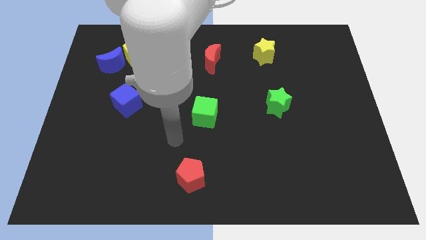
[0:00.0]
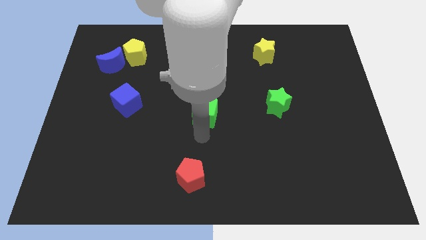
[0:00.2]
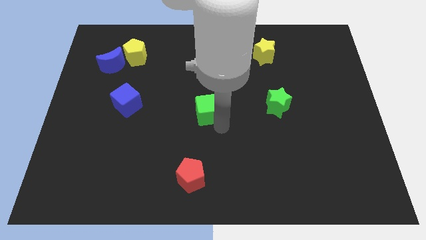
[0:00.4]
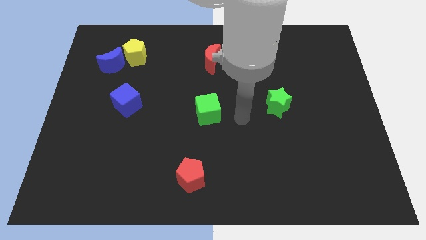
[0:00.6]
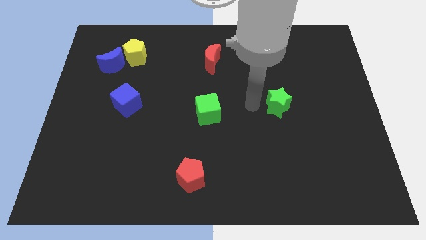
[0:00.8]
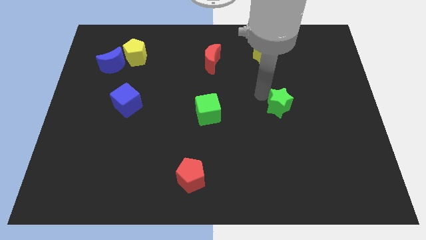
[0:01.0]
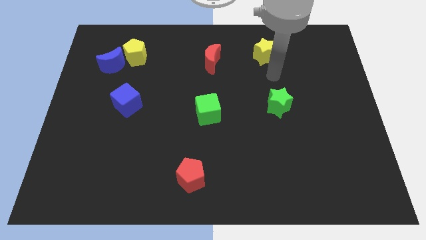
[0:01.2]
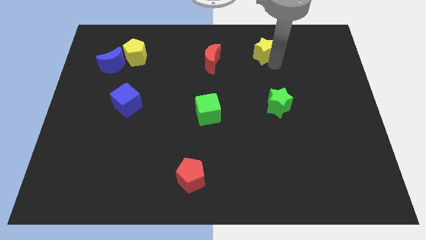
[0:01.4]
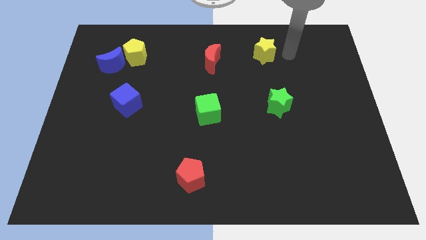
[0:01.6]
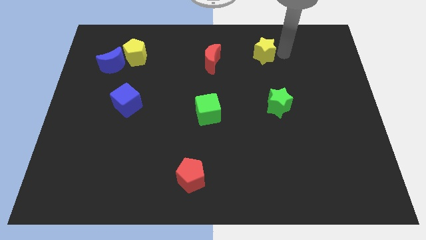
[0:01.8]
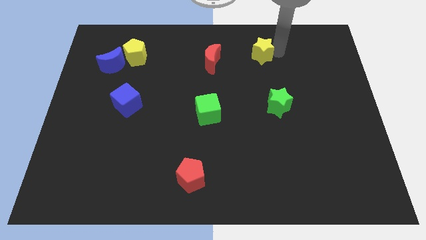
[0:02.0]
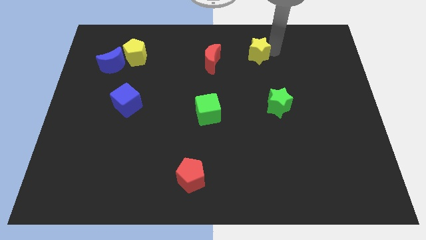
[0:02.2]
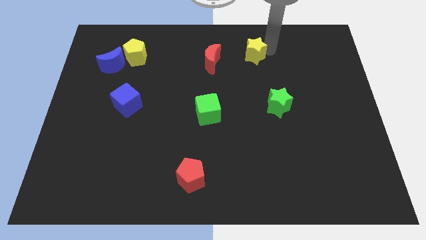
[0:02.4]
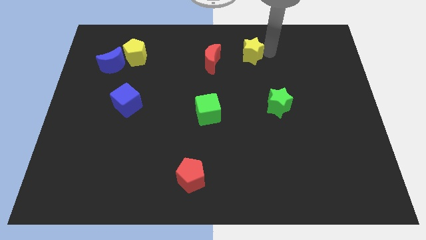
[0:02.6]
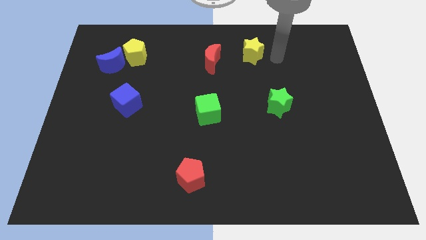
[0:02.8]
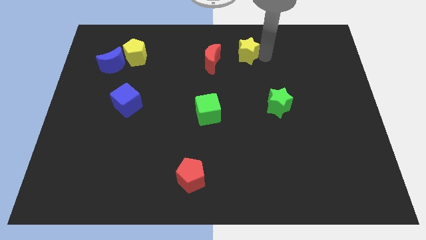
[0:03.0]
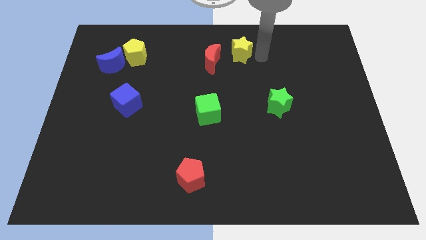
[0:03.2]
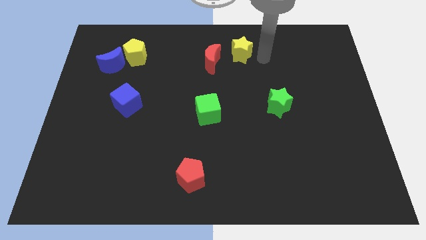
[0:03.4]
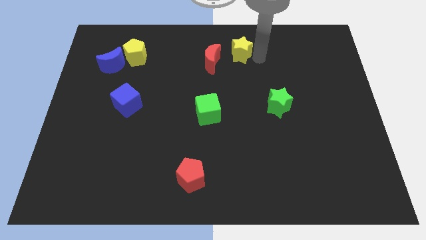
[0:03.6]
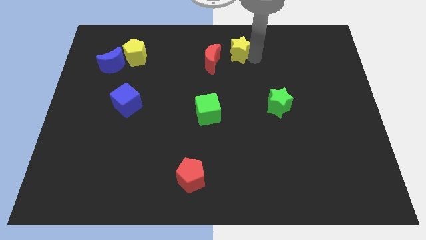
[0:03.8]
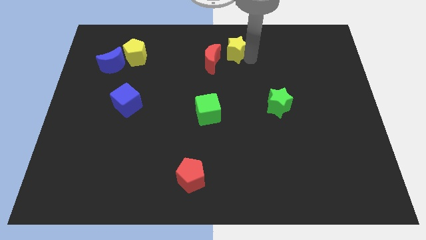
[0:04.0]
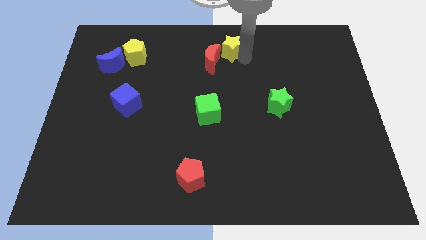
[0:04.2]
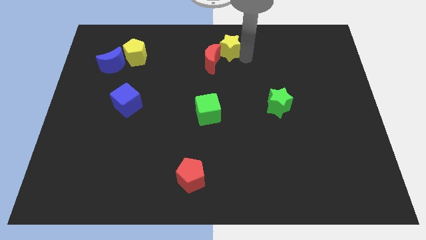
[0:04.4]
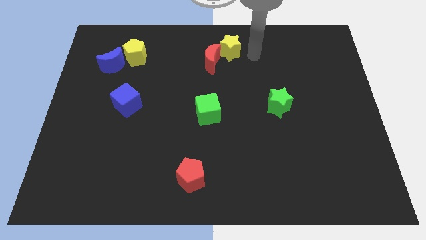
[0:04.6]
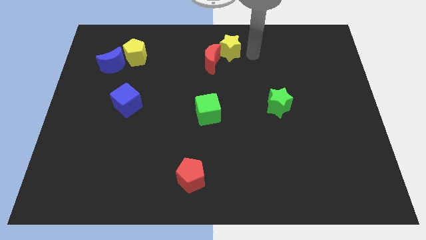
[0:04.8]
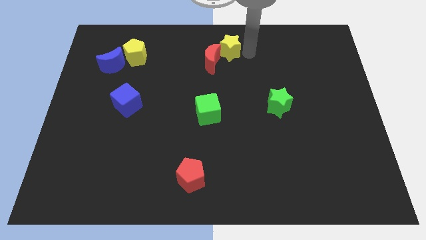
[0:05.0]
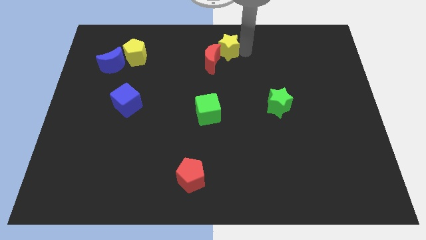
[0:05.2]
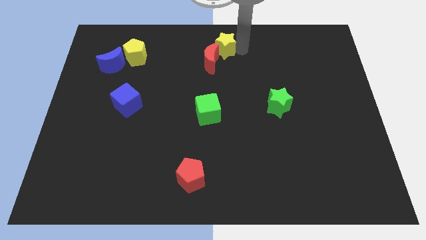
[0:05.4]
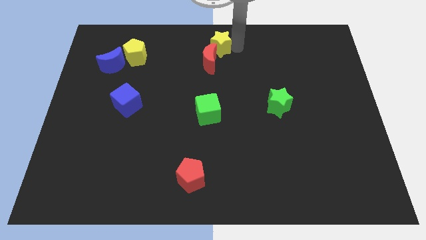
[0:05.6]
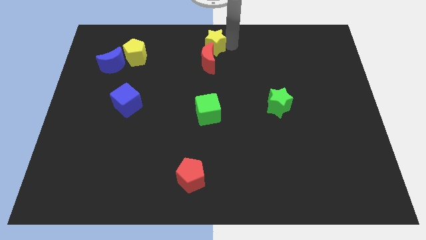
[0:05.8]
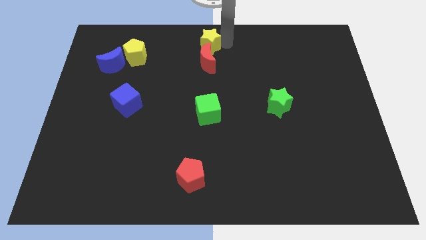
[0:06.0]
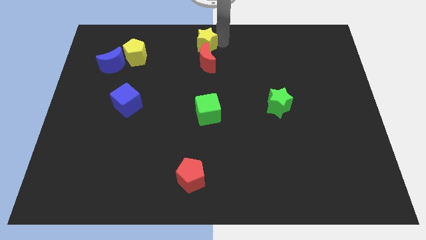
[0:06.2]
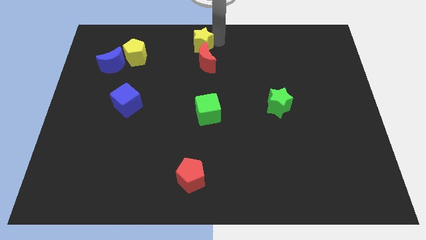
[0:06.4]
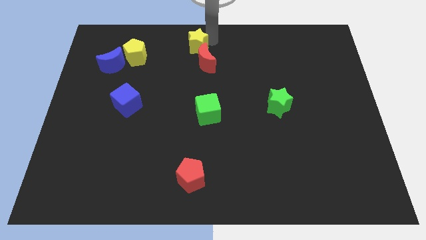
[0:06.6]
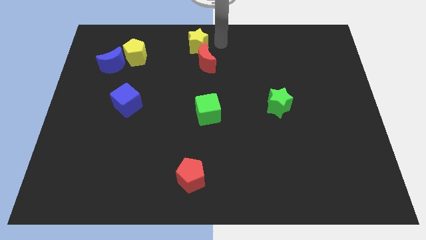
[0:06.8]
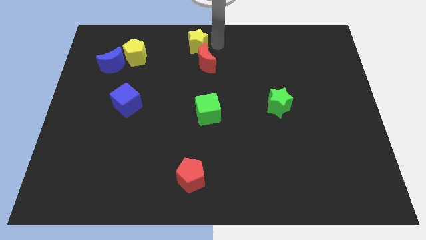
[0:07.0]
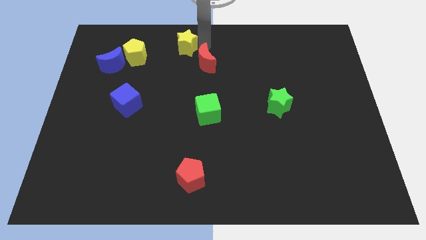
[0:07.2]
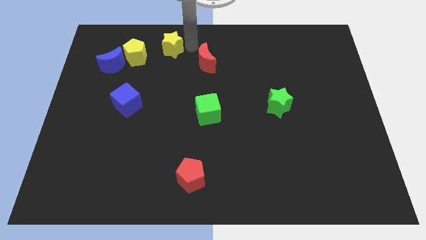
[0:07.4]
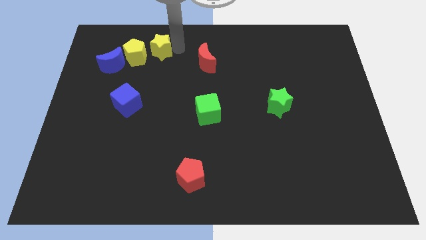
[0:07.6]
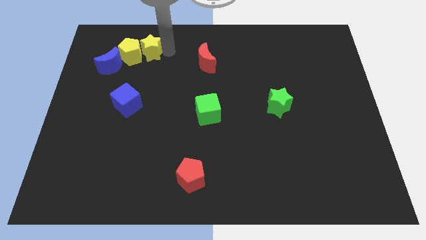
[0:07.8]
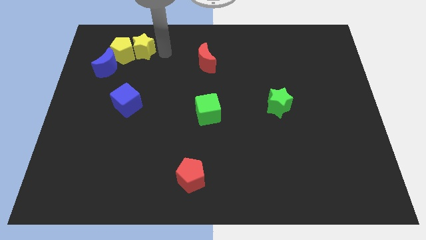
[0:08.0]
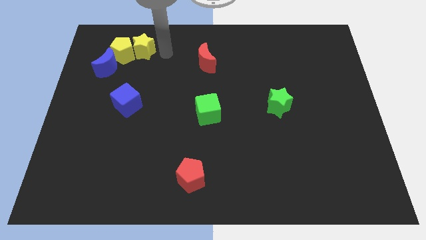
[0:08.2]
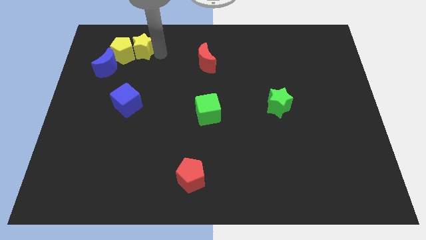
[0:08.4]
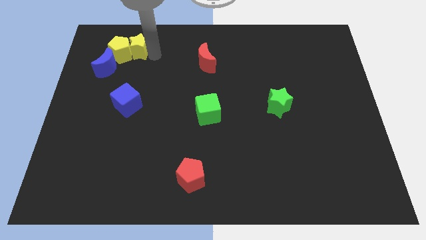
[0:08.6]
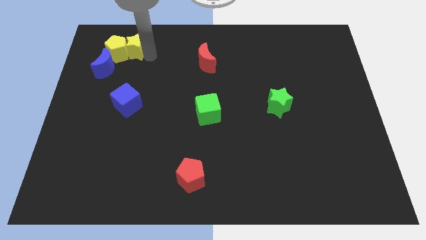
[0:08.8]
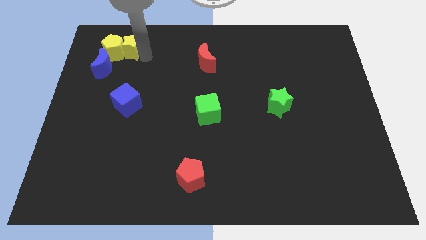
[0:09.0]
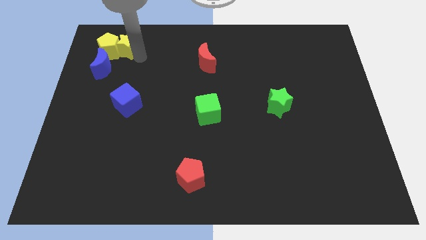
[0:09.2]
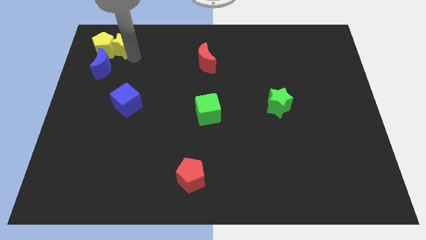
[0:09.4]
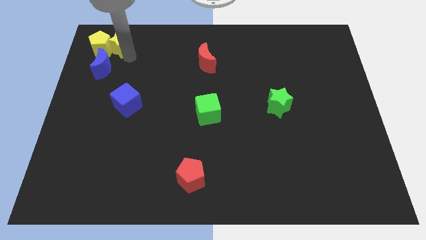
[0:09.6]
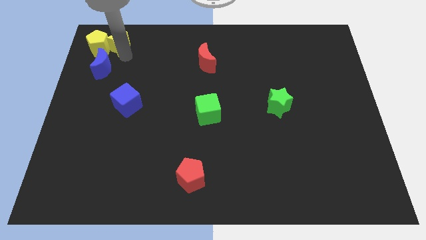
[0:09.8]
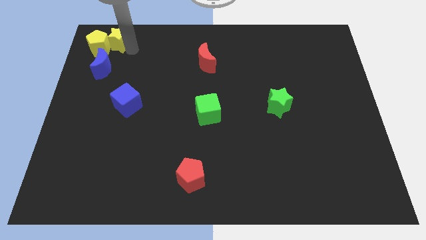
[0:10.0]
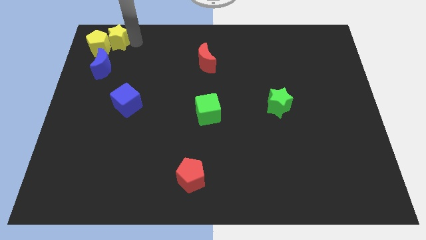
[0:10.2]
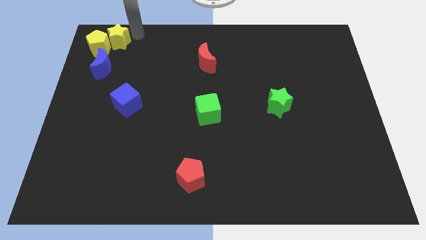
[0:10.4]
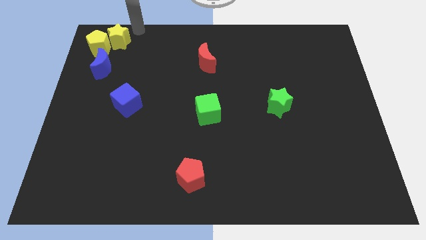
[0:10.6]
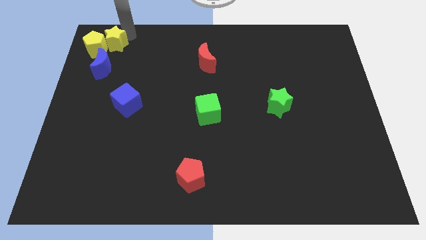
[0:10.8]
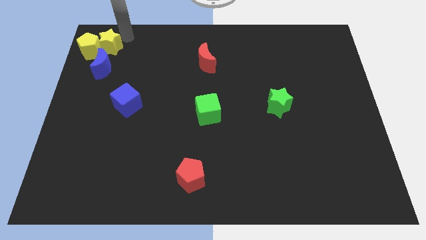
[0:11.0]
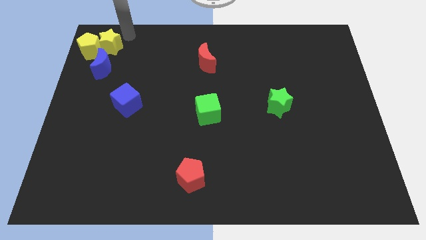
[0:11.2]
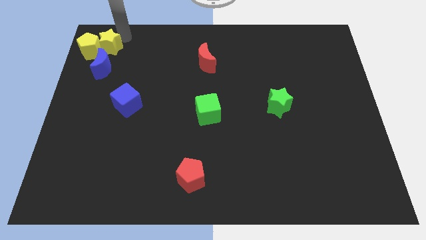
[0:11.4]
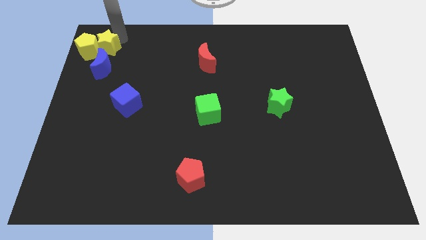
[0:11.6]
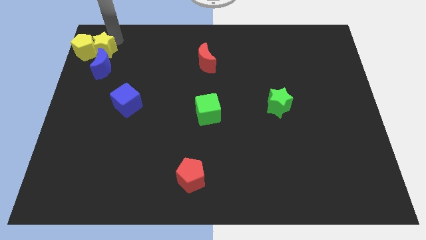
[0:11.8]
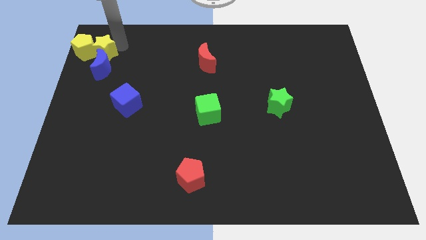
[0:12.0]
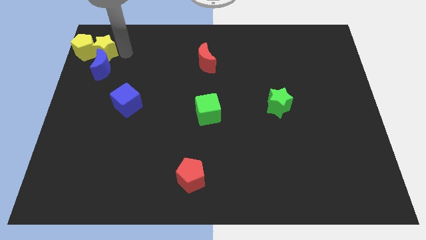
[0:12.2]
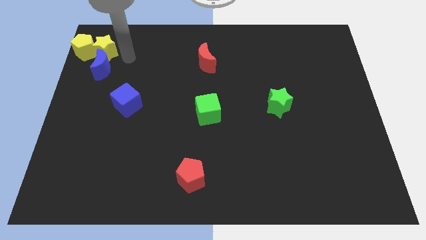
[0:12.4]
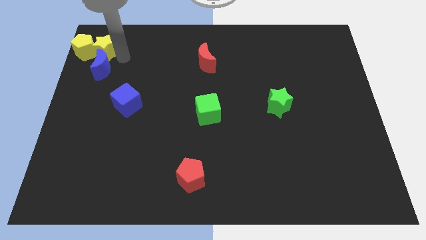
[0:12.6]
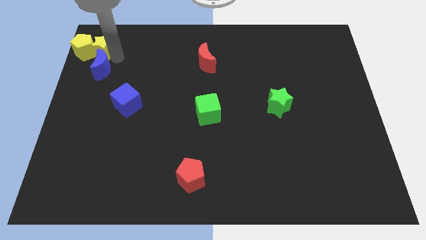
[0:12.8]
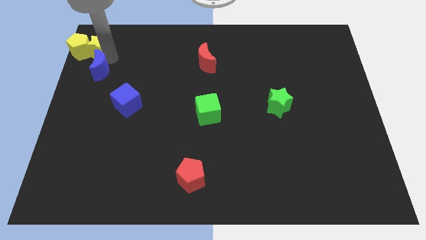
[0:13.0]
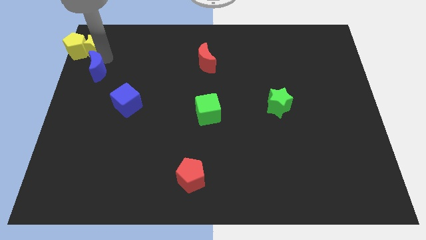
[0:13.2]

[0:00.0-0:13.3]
put the yellow star to the top left of the board
